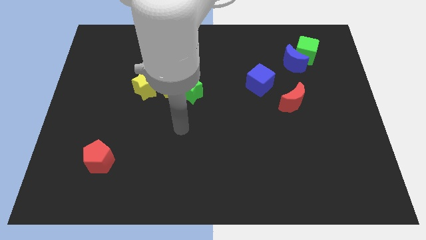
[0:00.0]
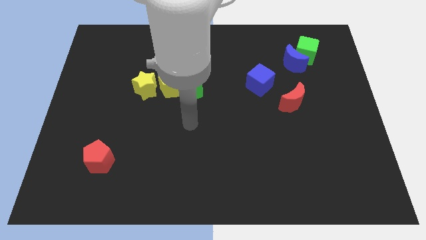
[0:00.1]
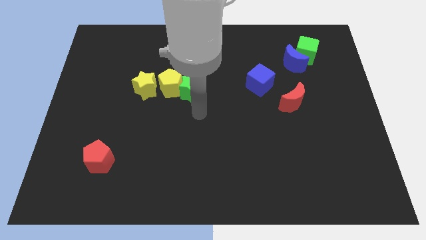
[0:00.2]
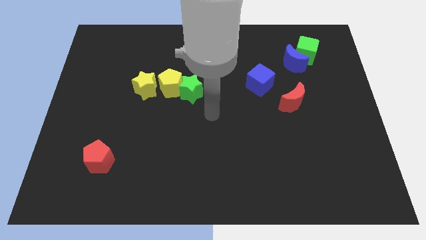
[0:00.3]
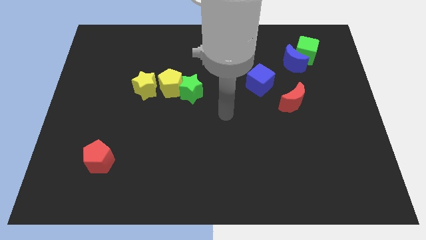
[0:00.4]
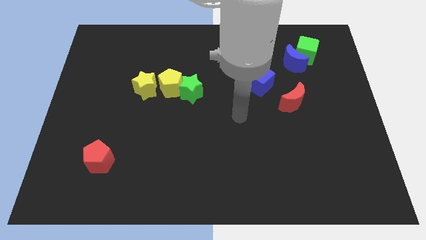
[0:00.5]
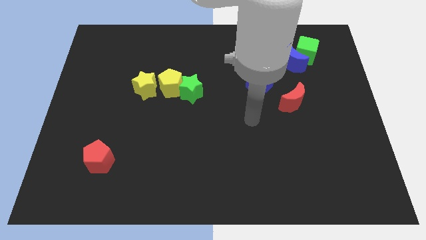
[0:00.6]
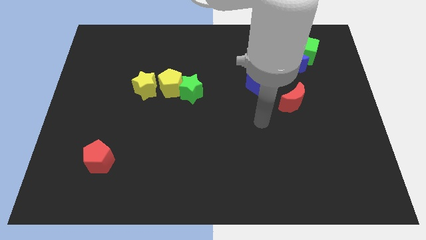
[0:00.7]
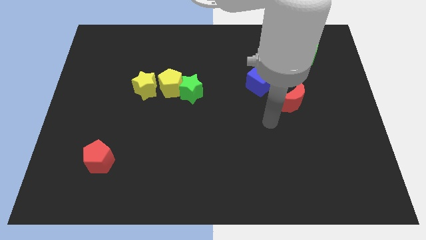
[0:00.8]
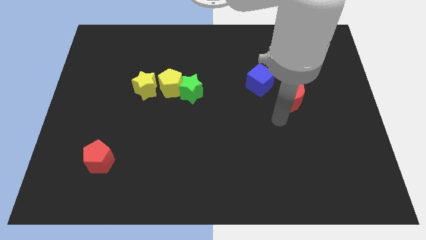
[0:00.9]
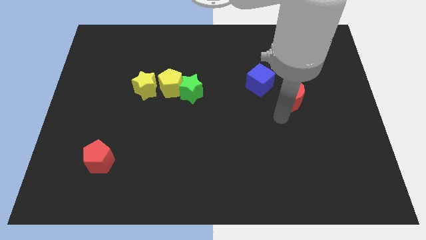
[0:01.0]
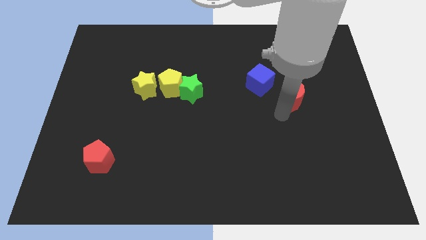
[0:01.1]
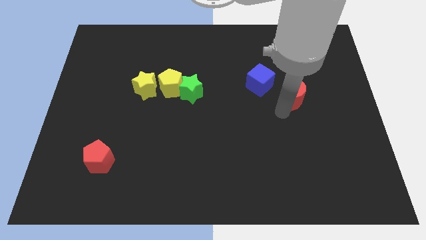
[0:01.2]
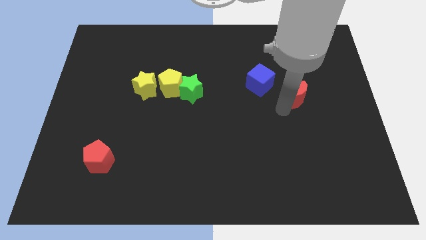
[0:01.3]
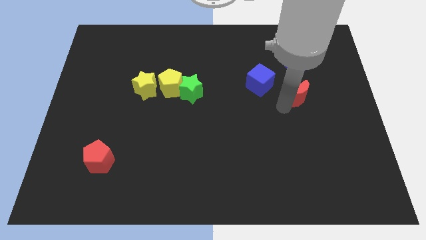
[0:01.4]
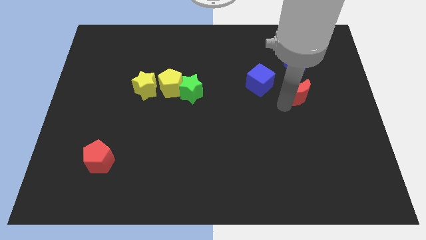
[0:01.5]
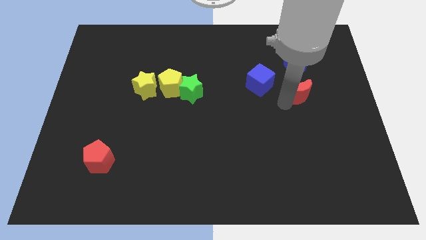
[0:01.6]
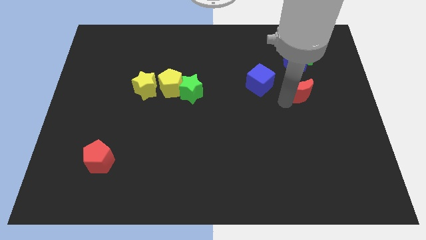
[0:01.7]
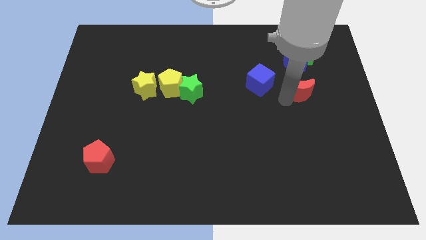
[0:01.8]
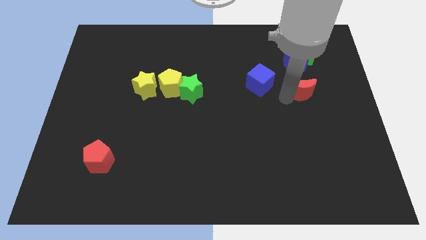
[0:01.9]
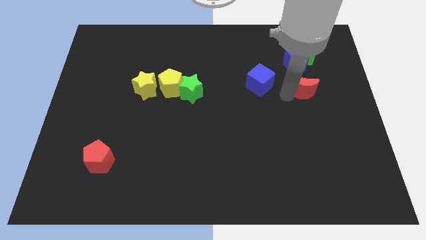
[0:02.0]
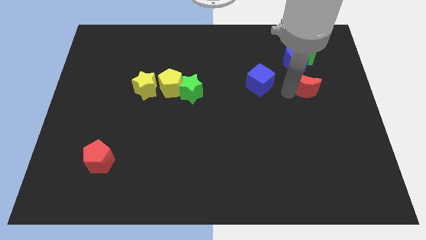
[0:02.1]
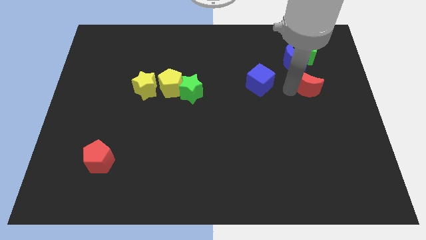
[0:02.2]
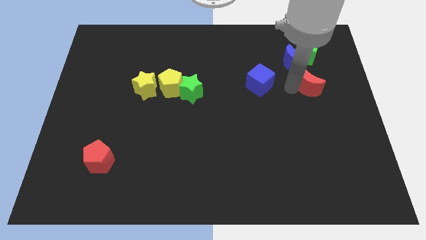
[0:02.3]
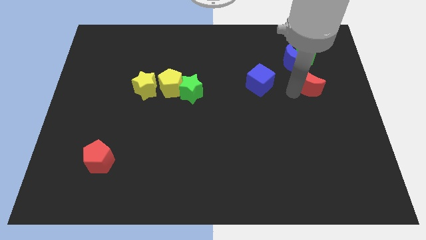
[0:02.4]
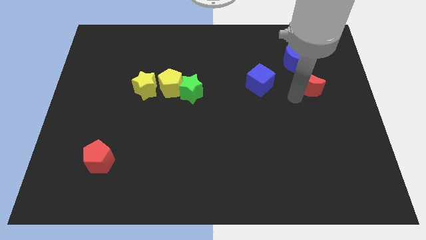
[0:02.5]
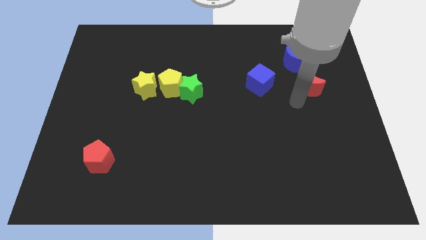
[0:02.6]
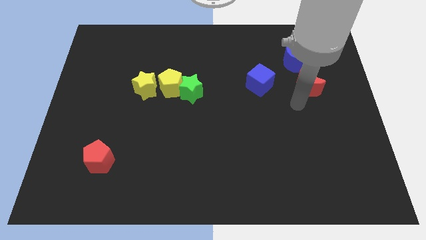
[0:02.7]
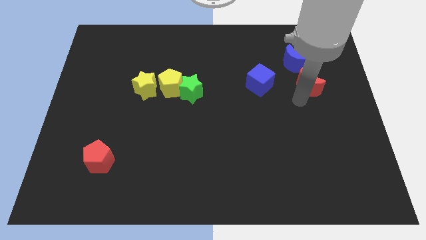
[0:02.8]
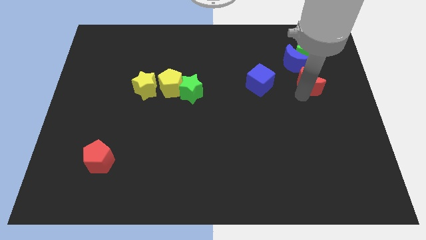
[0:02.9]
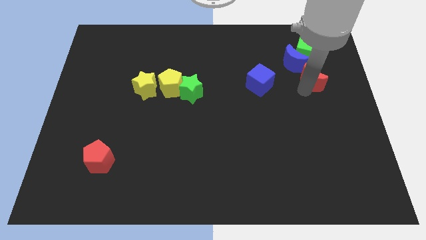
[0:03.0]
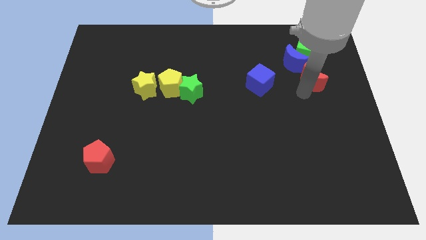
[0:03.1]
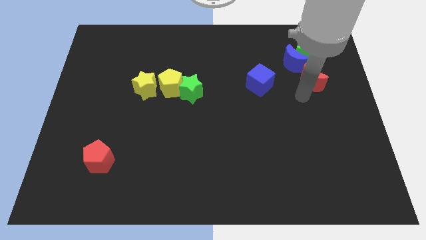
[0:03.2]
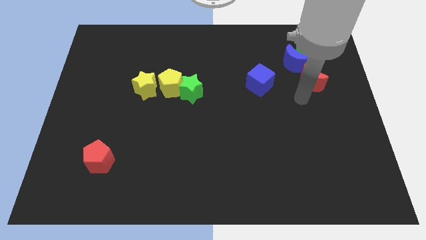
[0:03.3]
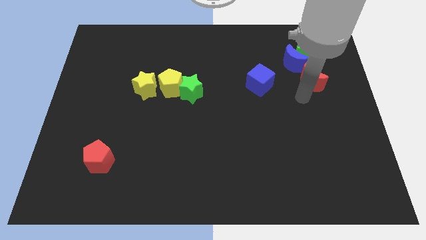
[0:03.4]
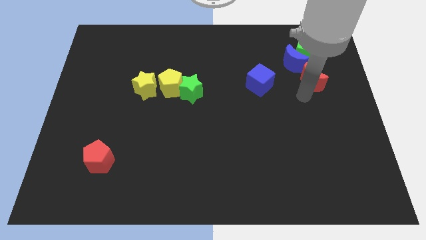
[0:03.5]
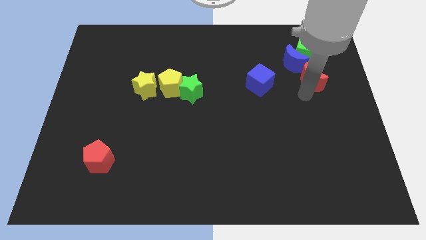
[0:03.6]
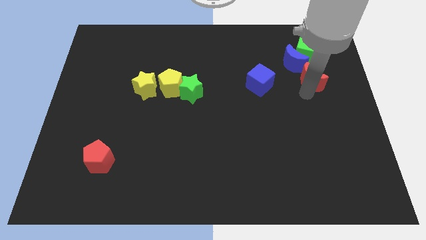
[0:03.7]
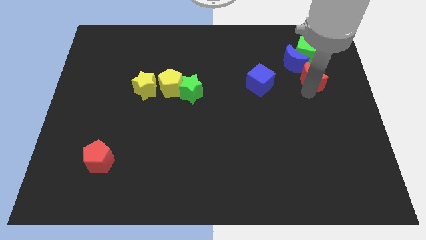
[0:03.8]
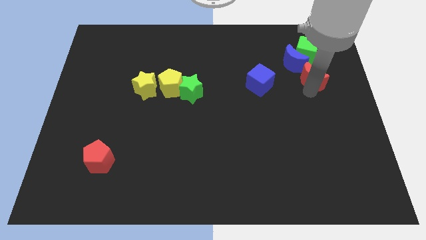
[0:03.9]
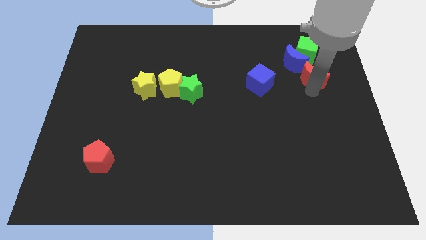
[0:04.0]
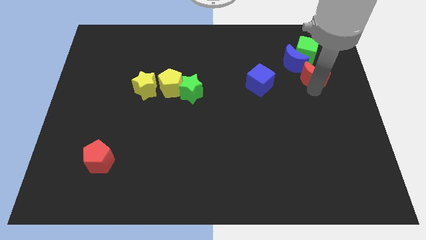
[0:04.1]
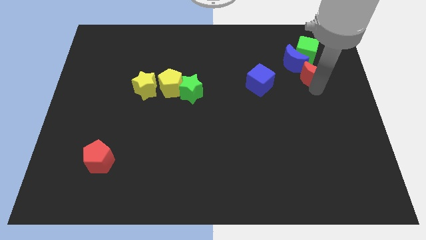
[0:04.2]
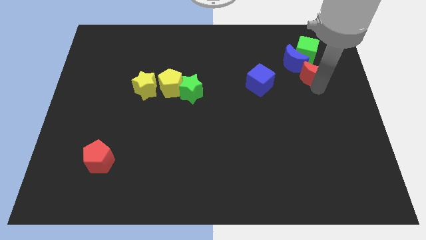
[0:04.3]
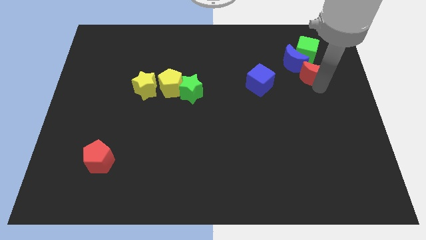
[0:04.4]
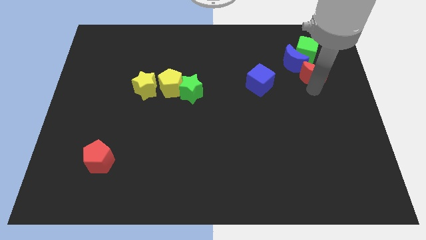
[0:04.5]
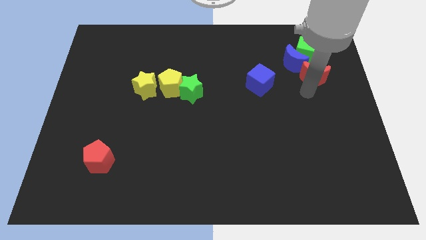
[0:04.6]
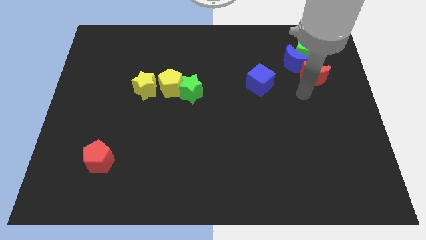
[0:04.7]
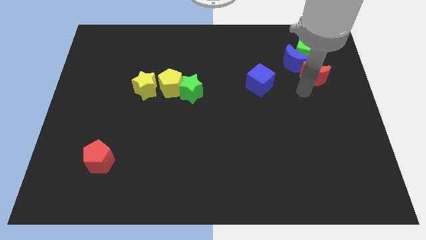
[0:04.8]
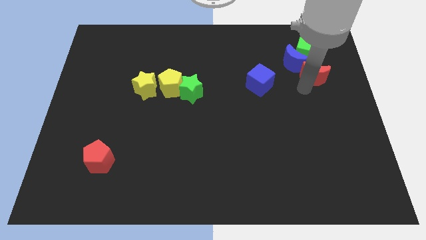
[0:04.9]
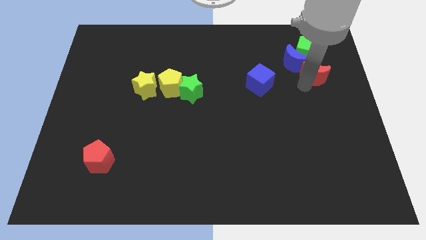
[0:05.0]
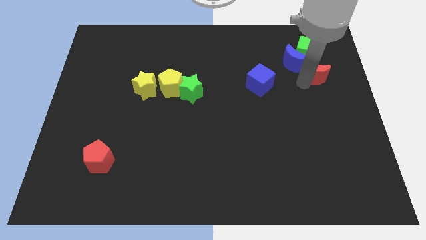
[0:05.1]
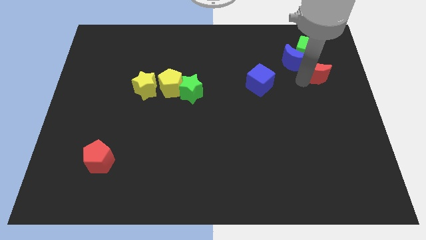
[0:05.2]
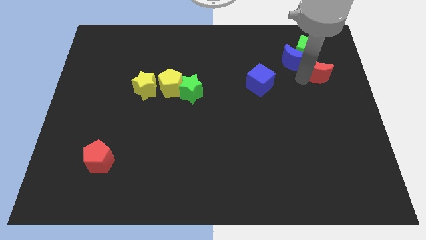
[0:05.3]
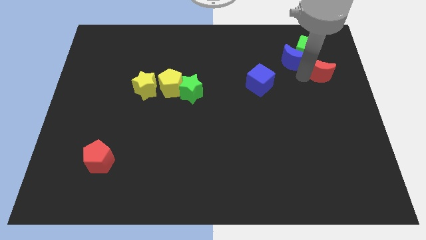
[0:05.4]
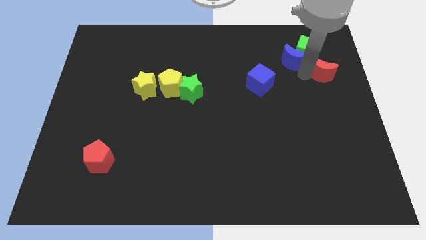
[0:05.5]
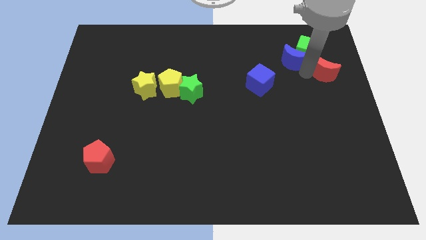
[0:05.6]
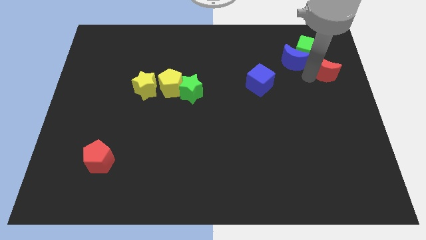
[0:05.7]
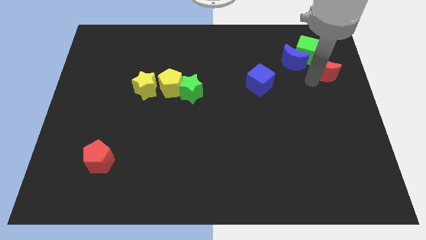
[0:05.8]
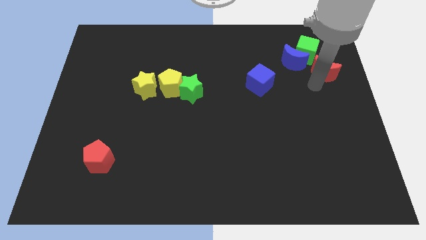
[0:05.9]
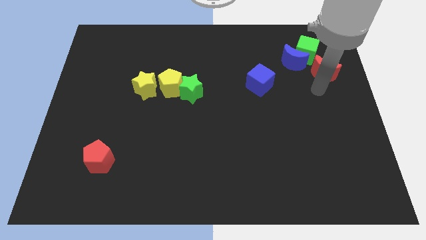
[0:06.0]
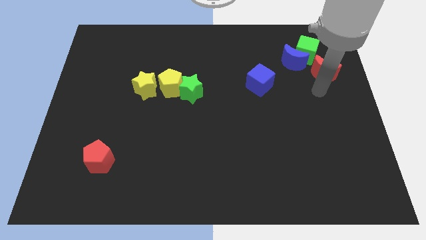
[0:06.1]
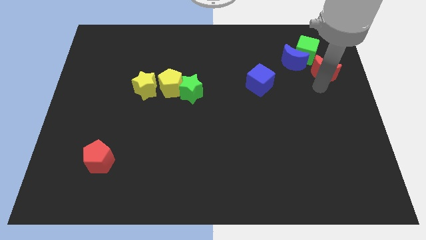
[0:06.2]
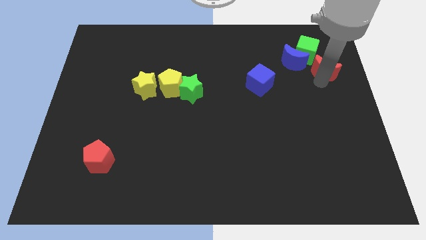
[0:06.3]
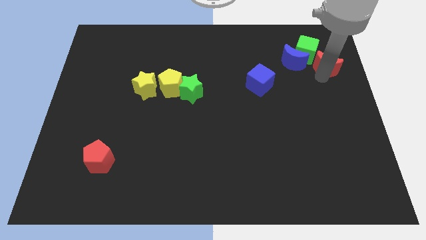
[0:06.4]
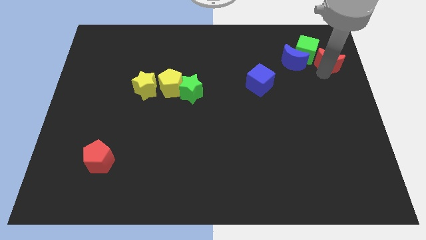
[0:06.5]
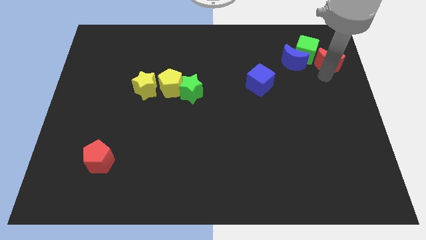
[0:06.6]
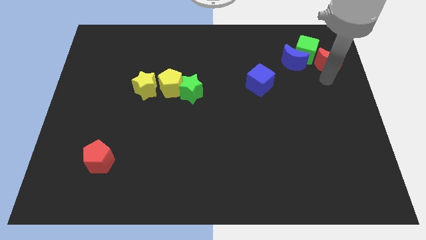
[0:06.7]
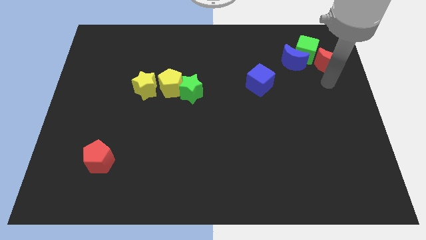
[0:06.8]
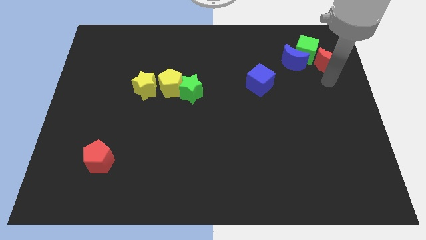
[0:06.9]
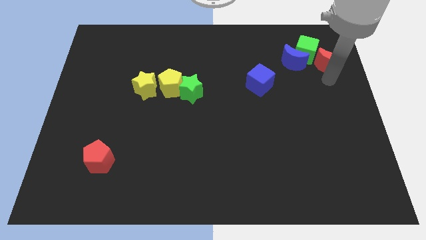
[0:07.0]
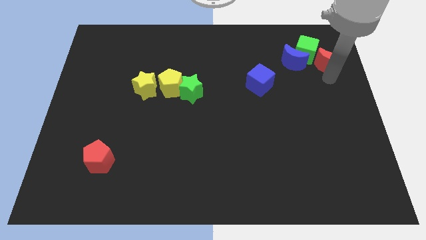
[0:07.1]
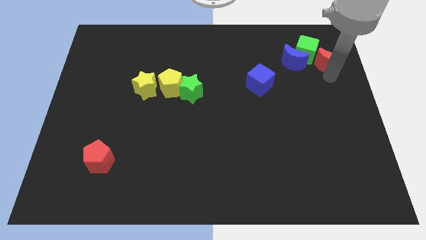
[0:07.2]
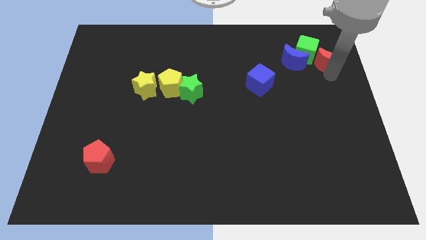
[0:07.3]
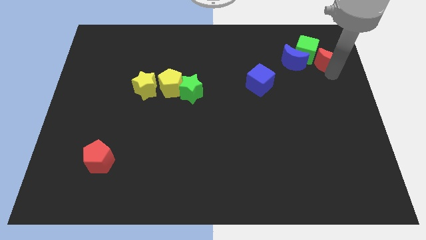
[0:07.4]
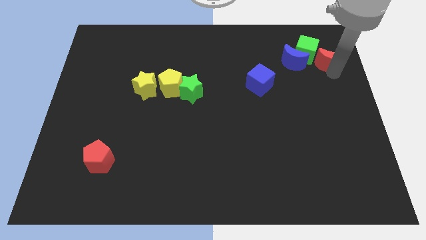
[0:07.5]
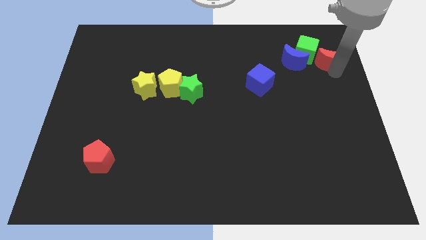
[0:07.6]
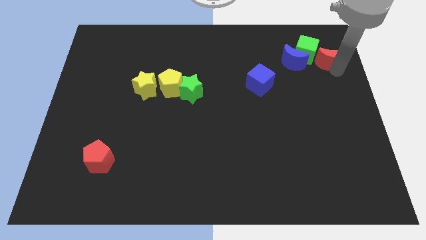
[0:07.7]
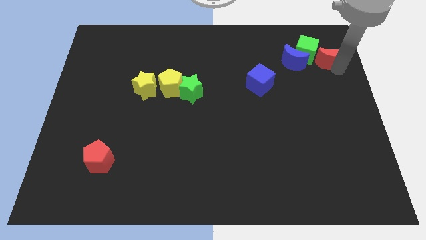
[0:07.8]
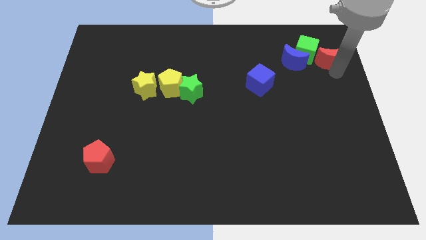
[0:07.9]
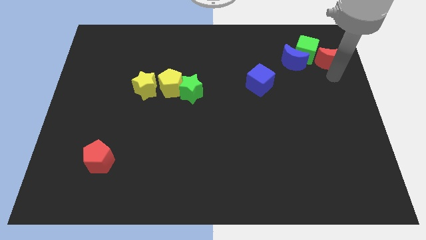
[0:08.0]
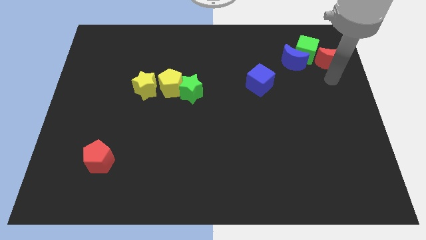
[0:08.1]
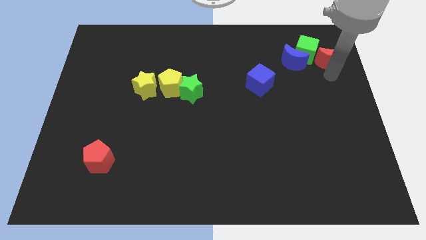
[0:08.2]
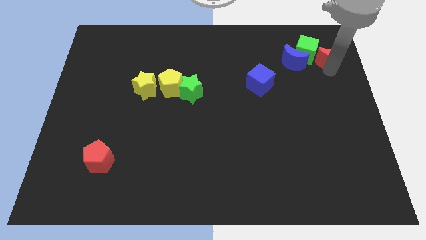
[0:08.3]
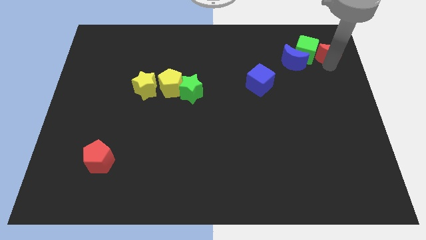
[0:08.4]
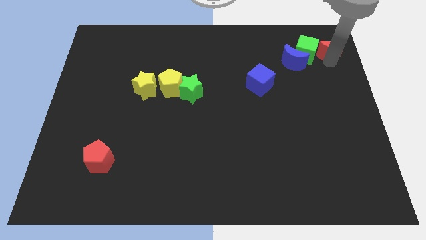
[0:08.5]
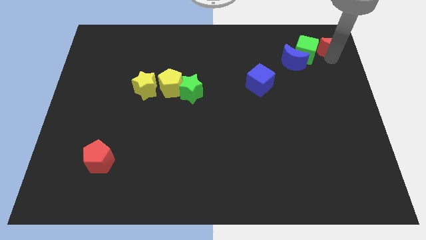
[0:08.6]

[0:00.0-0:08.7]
move the red moon to the upper right corner
